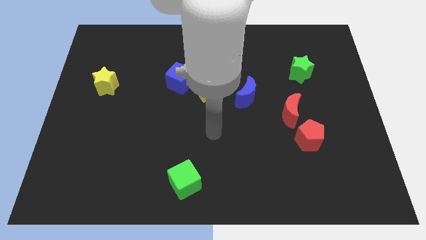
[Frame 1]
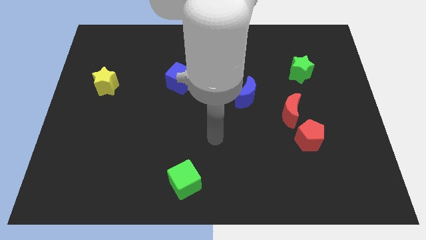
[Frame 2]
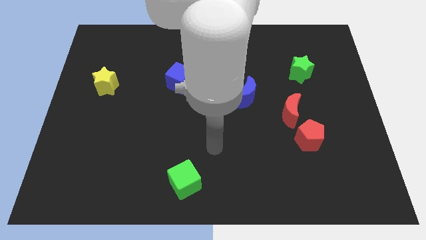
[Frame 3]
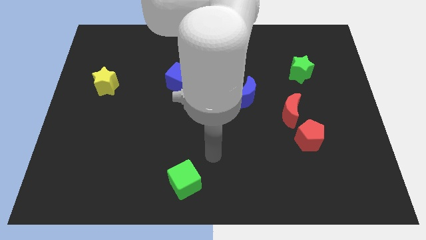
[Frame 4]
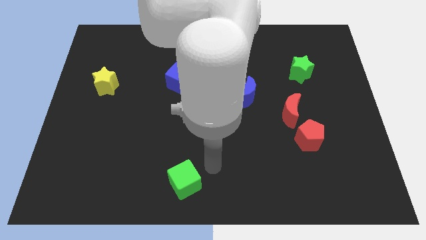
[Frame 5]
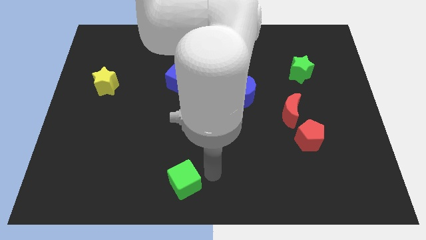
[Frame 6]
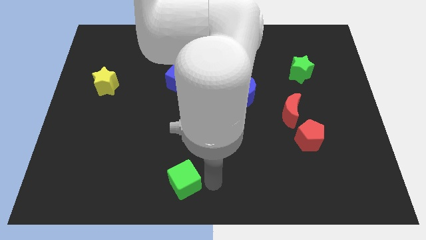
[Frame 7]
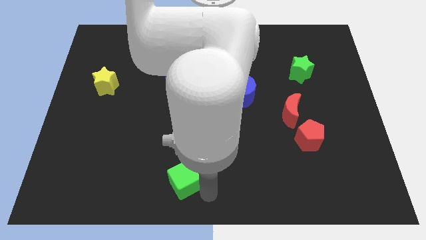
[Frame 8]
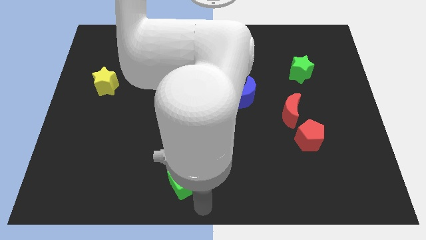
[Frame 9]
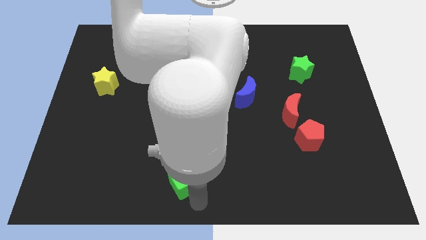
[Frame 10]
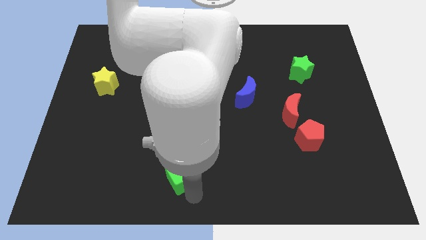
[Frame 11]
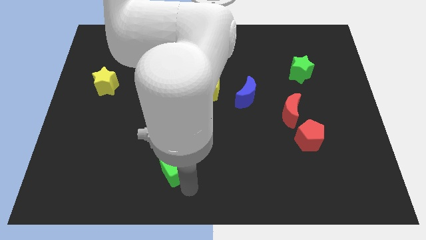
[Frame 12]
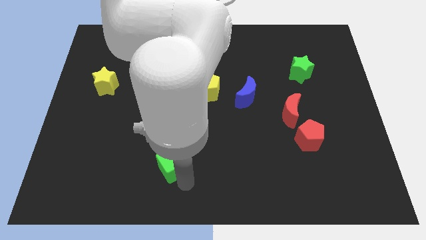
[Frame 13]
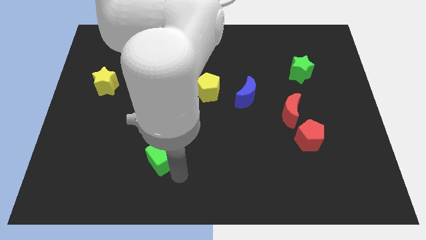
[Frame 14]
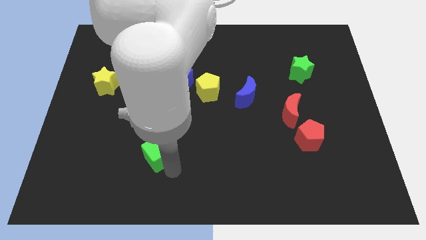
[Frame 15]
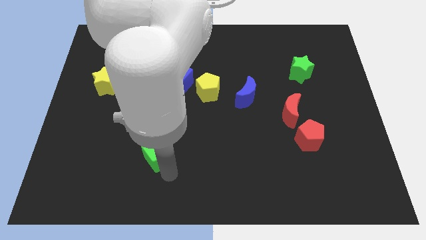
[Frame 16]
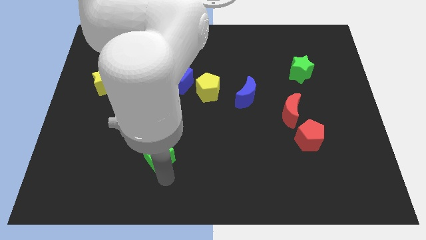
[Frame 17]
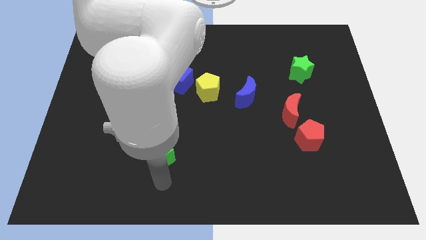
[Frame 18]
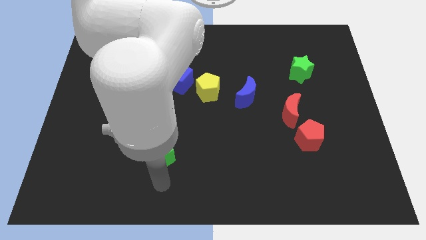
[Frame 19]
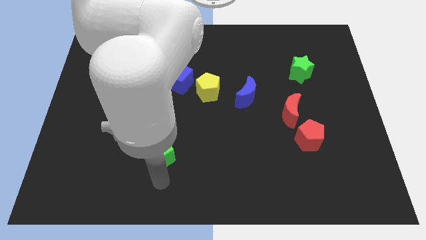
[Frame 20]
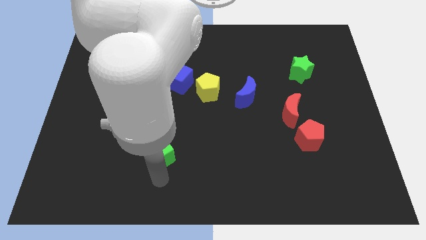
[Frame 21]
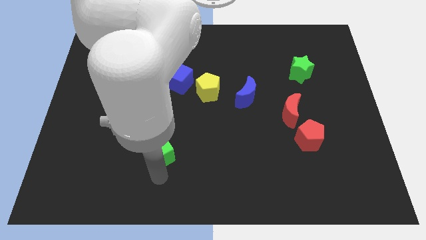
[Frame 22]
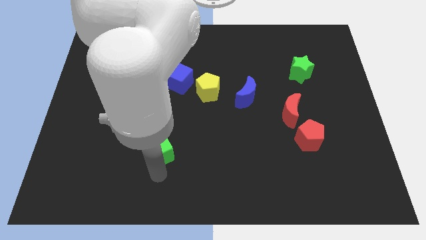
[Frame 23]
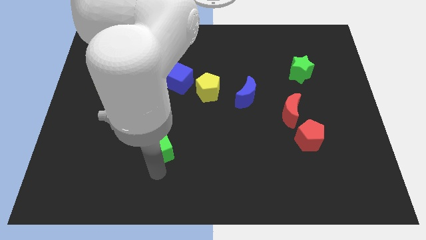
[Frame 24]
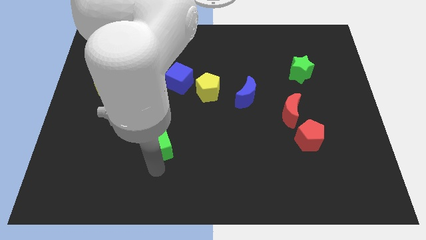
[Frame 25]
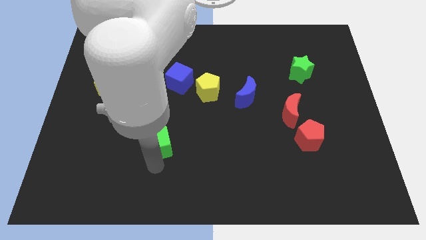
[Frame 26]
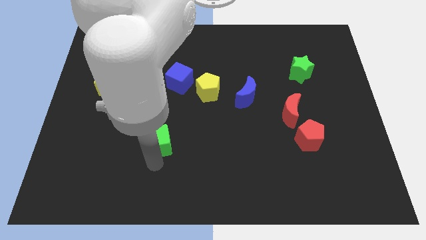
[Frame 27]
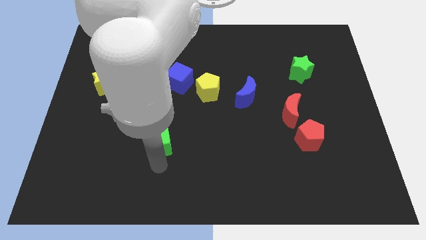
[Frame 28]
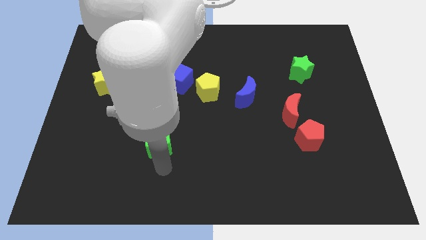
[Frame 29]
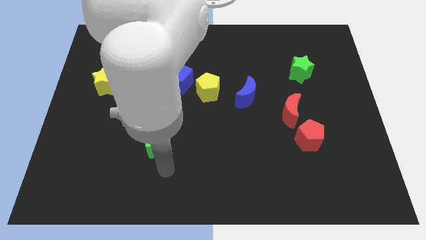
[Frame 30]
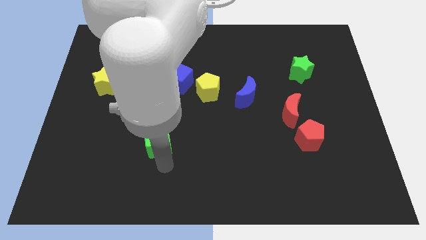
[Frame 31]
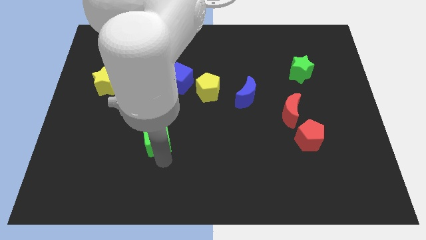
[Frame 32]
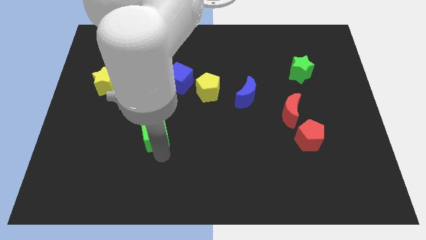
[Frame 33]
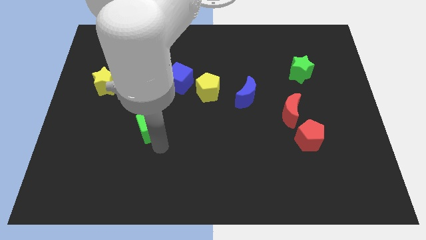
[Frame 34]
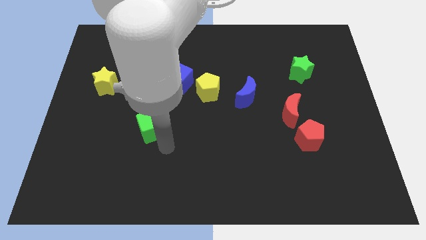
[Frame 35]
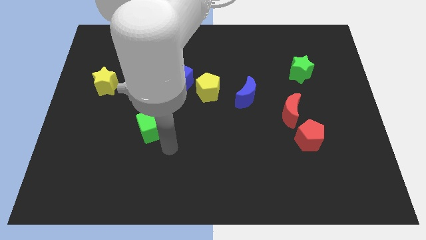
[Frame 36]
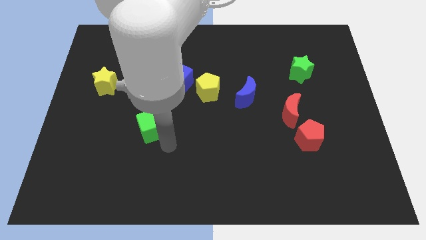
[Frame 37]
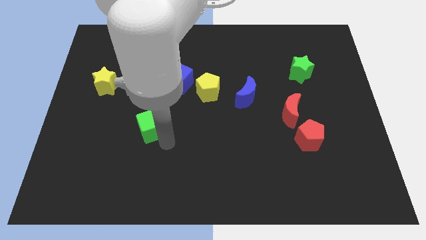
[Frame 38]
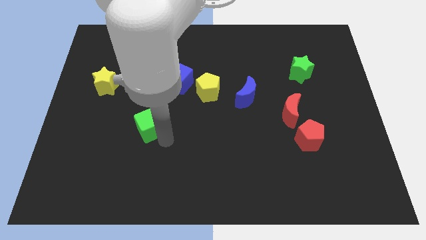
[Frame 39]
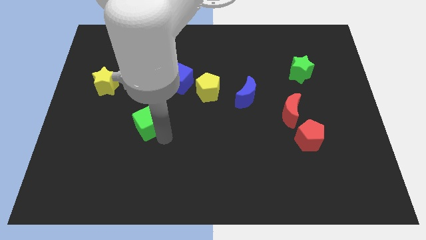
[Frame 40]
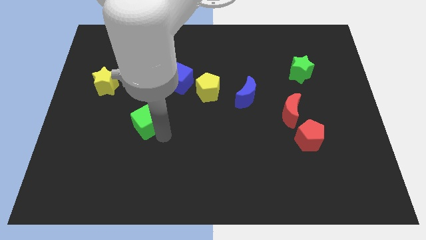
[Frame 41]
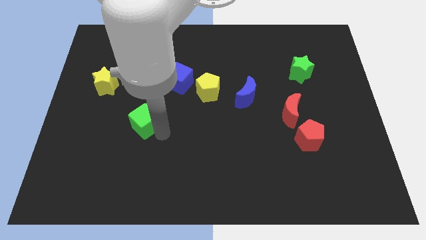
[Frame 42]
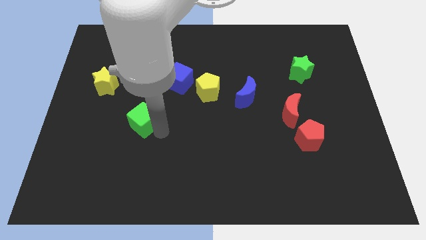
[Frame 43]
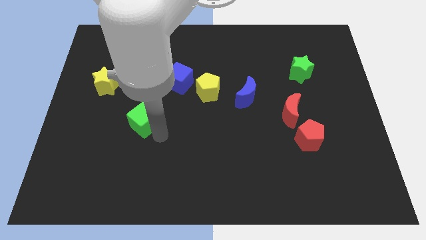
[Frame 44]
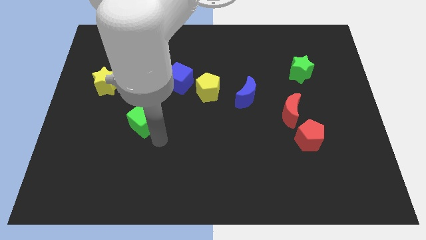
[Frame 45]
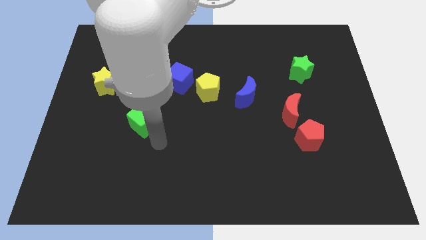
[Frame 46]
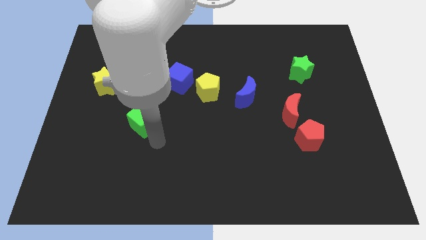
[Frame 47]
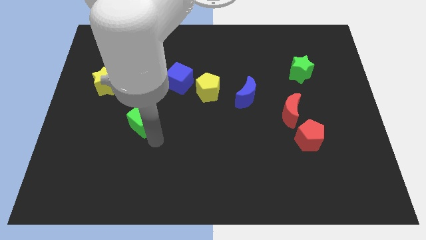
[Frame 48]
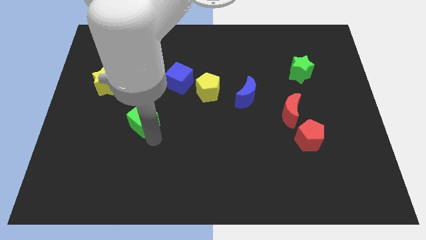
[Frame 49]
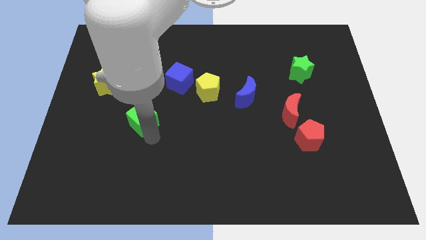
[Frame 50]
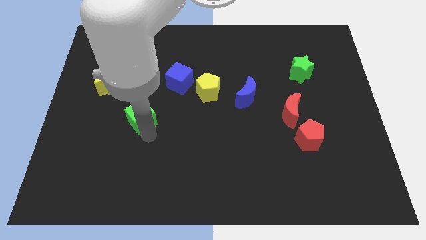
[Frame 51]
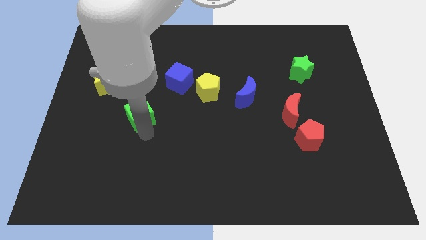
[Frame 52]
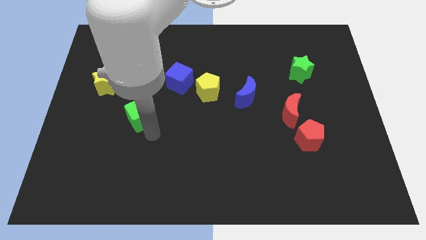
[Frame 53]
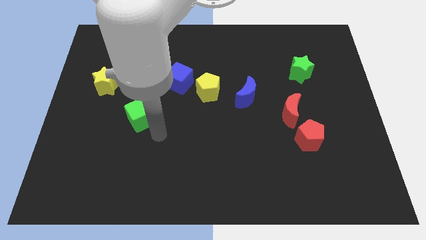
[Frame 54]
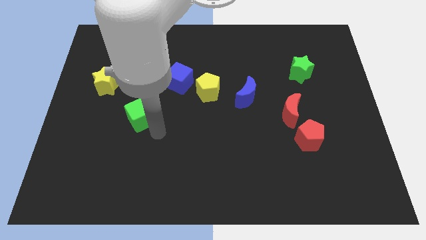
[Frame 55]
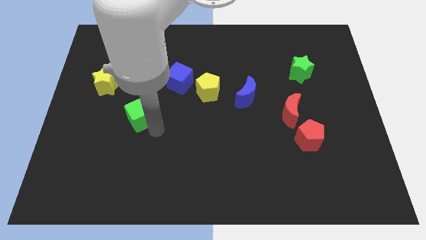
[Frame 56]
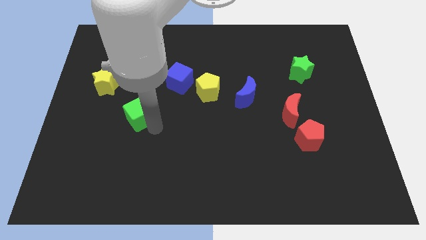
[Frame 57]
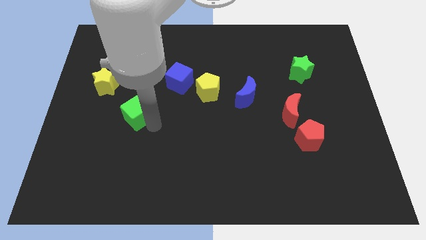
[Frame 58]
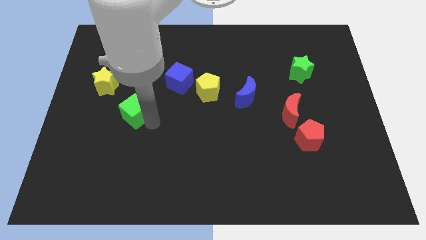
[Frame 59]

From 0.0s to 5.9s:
move the green cube to the bottom right side of the yellow star

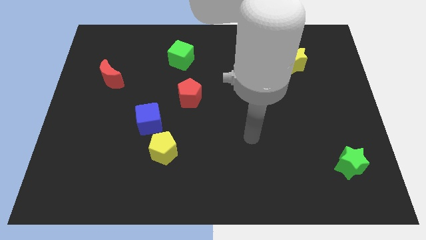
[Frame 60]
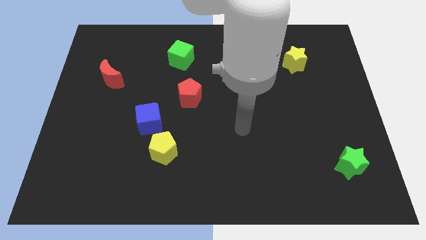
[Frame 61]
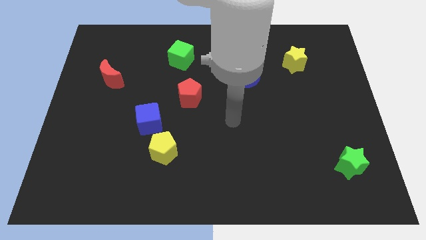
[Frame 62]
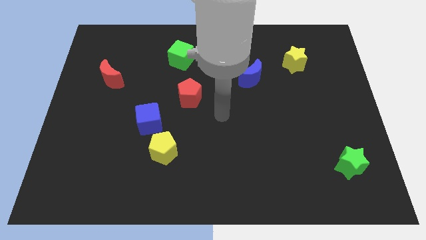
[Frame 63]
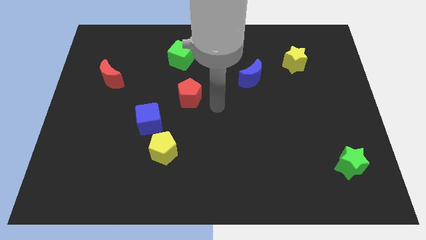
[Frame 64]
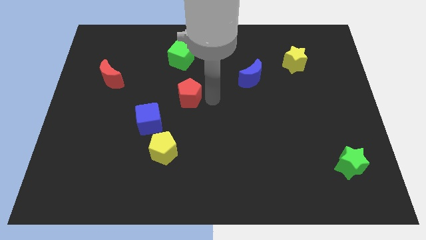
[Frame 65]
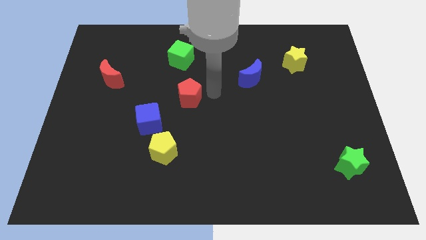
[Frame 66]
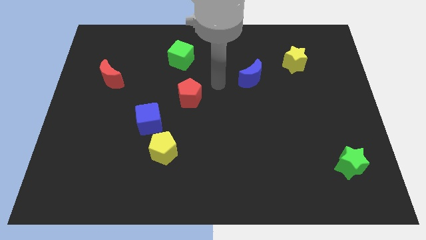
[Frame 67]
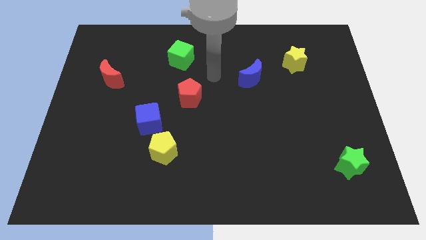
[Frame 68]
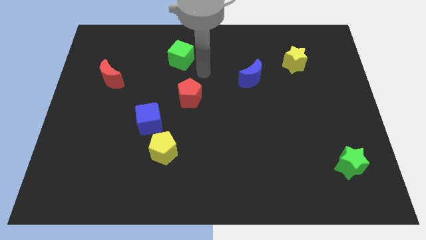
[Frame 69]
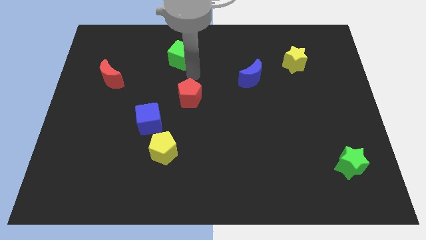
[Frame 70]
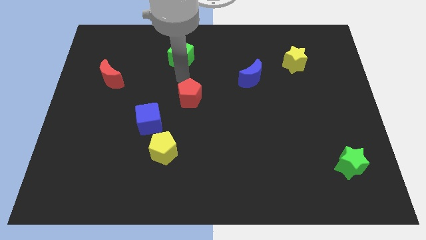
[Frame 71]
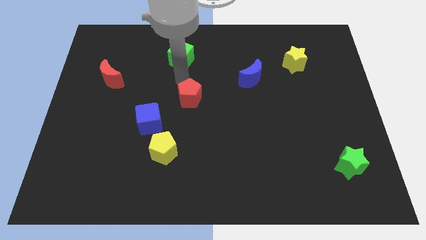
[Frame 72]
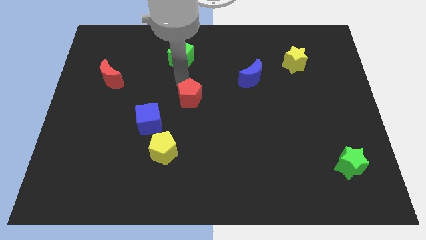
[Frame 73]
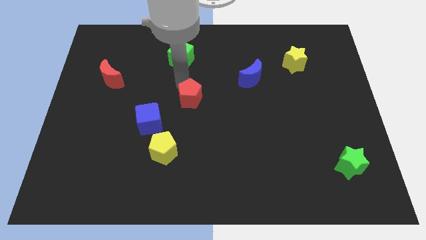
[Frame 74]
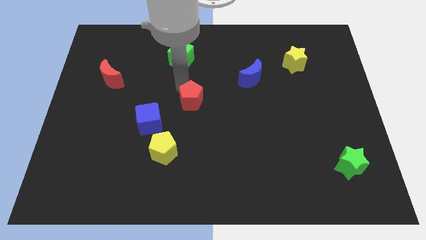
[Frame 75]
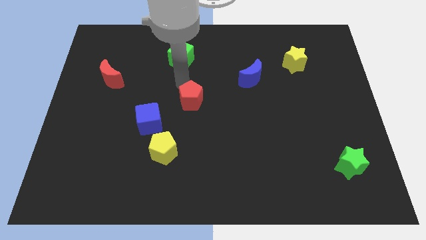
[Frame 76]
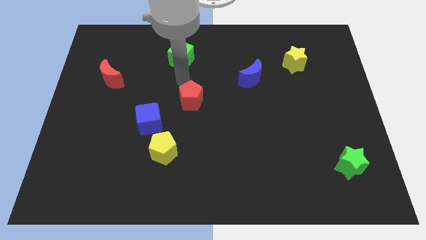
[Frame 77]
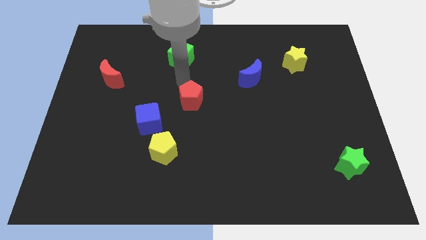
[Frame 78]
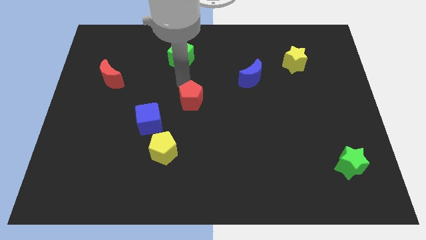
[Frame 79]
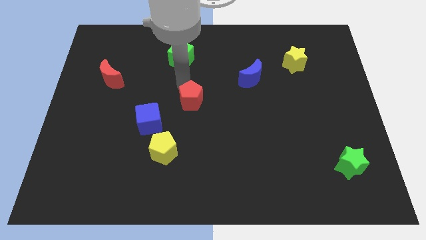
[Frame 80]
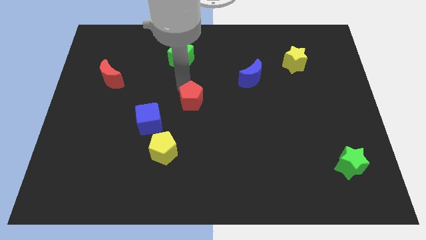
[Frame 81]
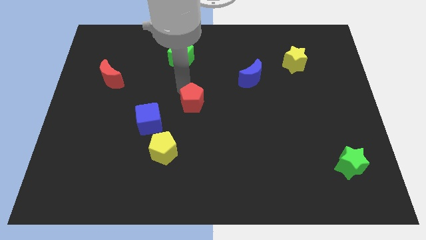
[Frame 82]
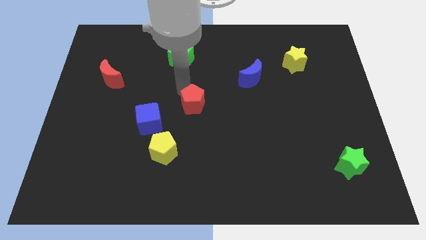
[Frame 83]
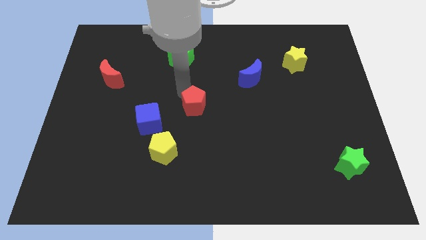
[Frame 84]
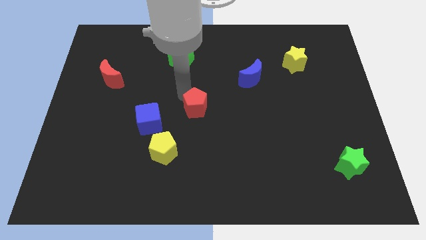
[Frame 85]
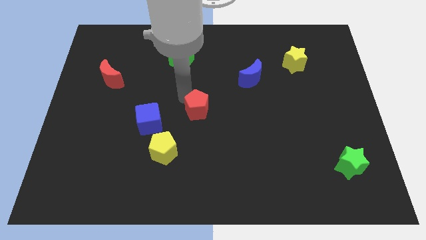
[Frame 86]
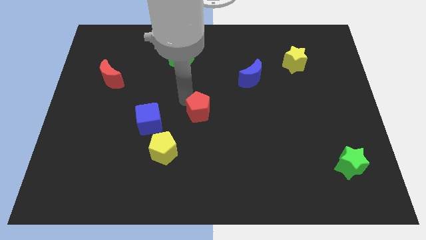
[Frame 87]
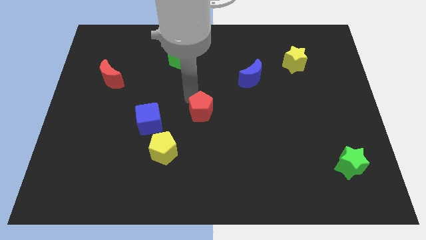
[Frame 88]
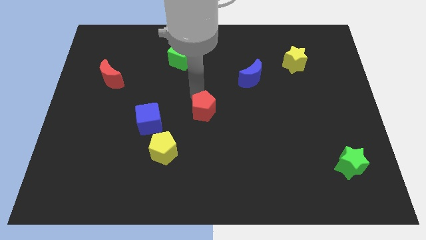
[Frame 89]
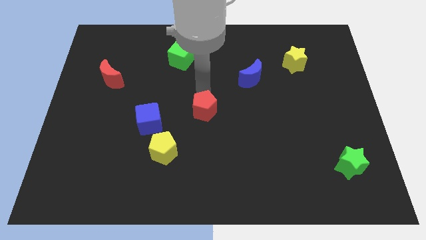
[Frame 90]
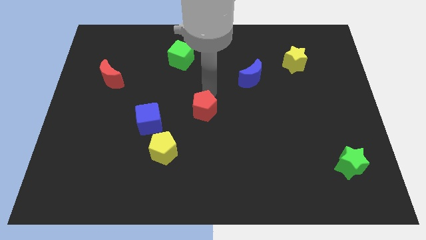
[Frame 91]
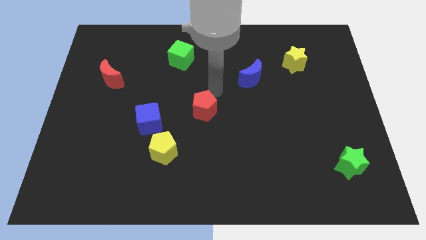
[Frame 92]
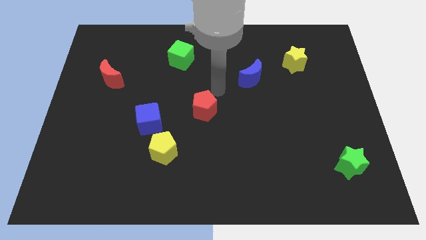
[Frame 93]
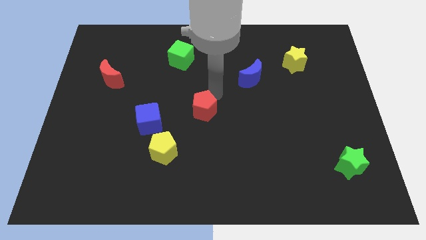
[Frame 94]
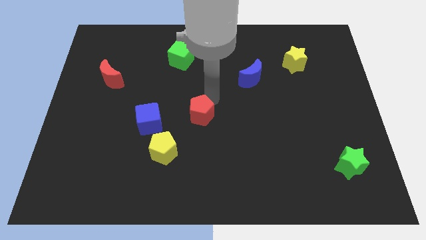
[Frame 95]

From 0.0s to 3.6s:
push the red pentagon to the top right of the yellow pentagon
